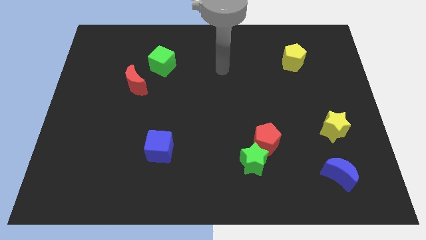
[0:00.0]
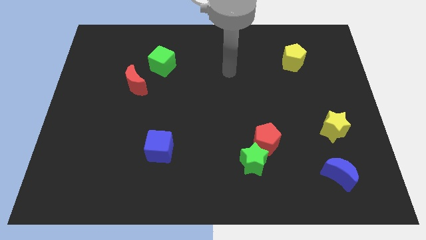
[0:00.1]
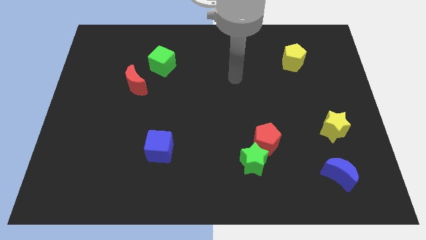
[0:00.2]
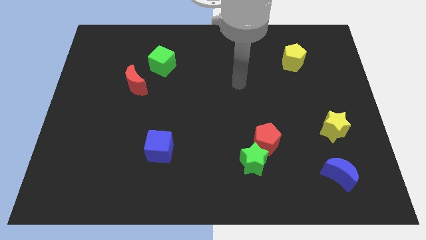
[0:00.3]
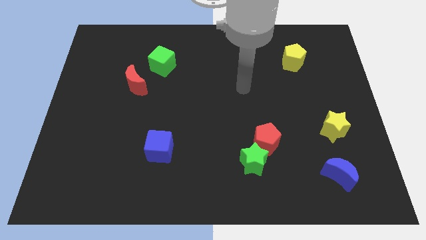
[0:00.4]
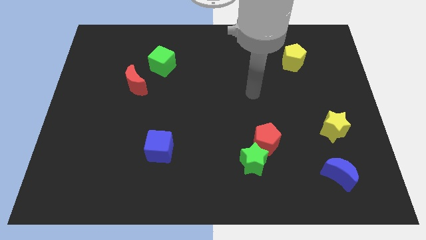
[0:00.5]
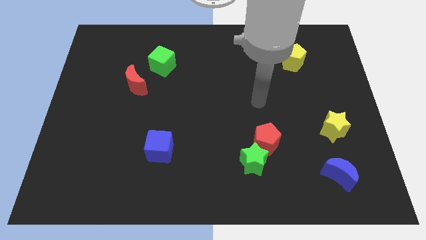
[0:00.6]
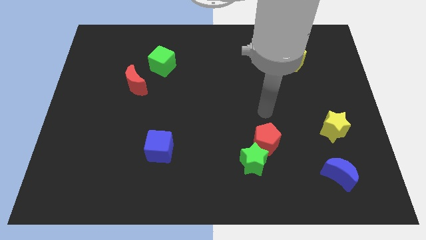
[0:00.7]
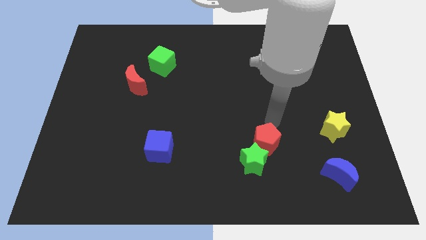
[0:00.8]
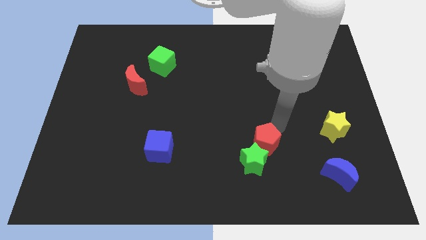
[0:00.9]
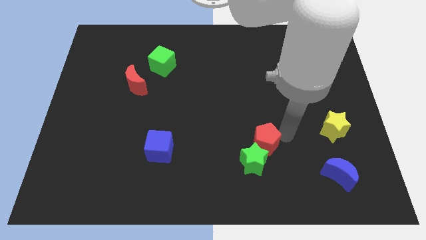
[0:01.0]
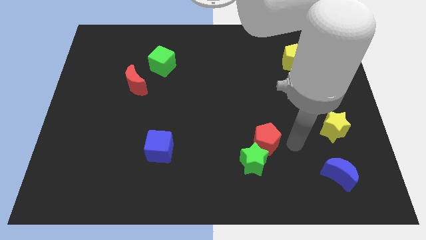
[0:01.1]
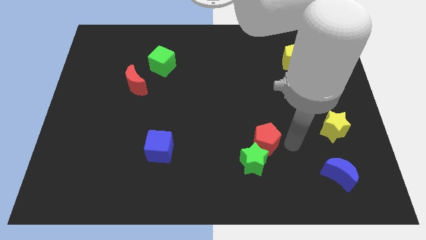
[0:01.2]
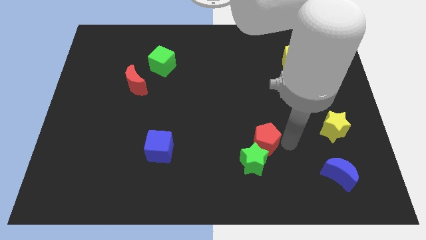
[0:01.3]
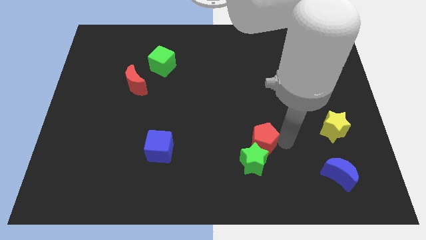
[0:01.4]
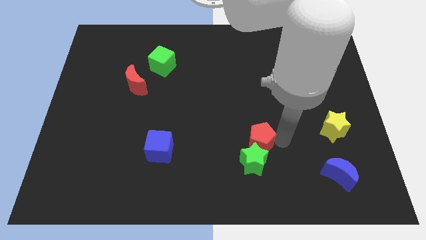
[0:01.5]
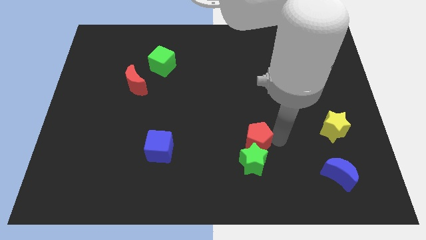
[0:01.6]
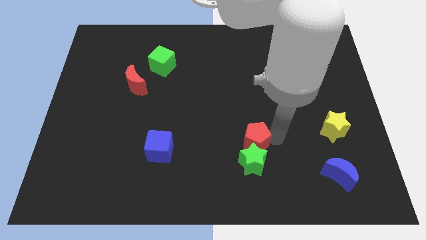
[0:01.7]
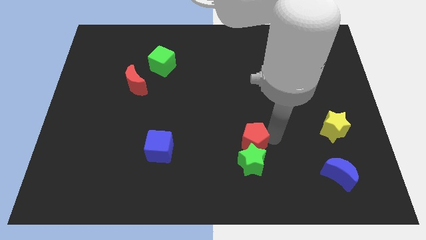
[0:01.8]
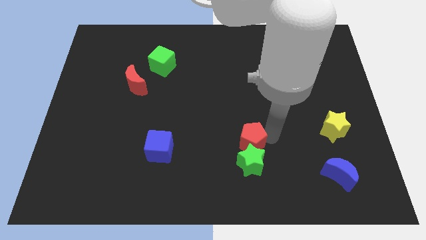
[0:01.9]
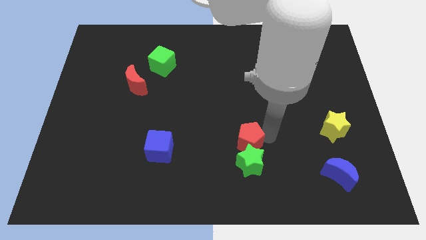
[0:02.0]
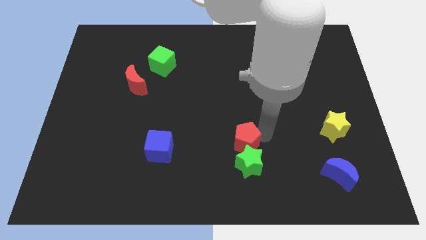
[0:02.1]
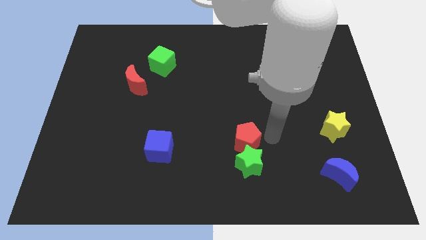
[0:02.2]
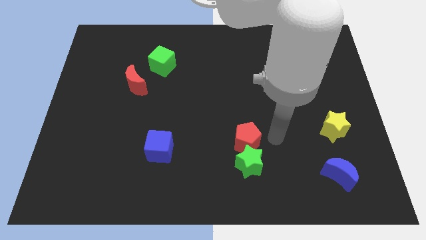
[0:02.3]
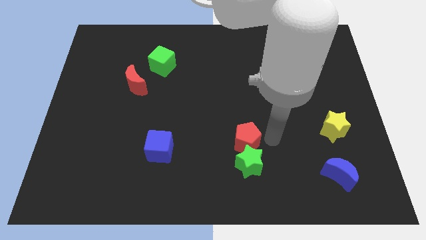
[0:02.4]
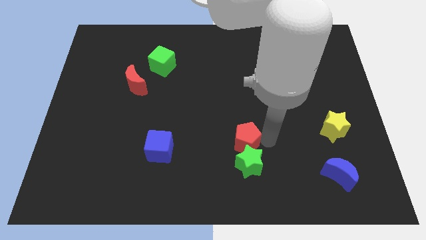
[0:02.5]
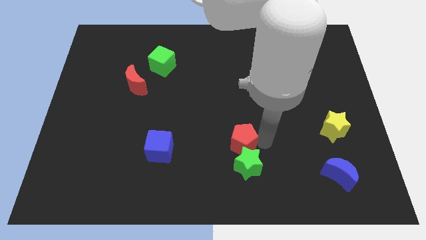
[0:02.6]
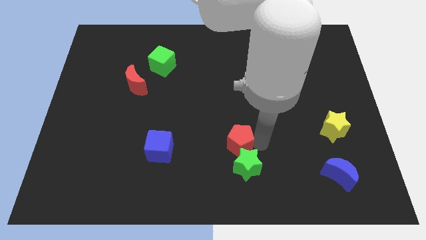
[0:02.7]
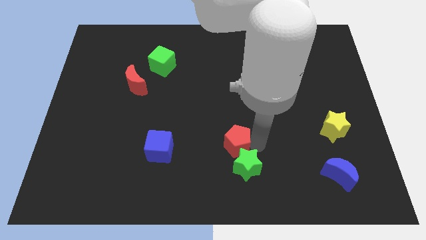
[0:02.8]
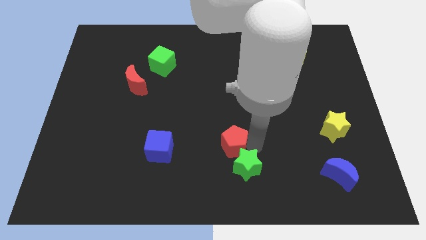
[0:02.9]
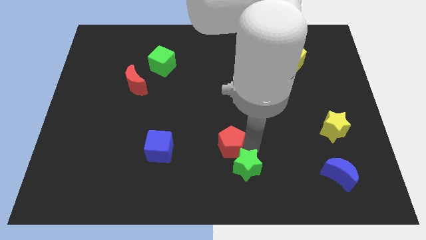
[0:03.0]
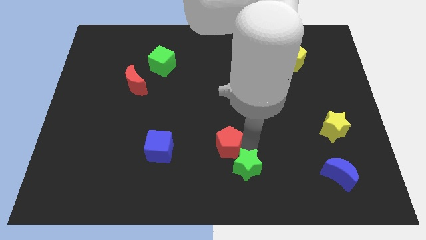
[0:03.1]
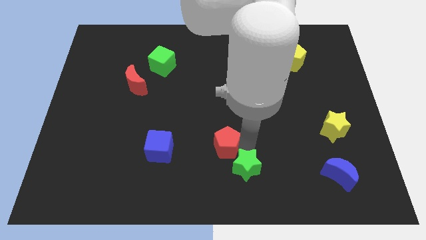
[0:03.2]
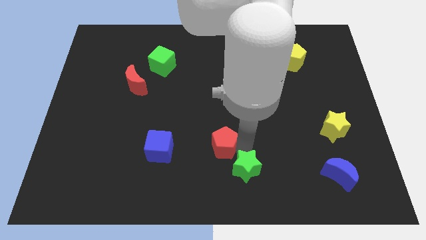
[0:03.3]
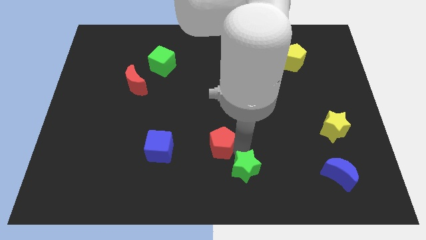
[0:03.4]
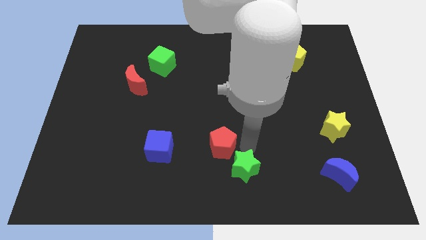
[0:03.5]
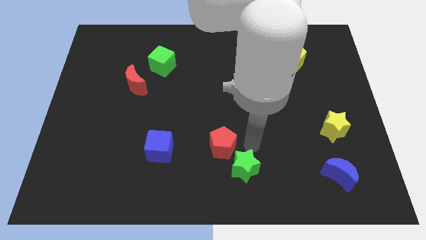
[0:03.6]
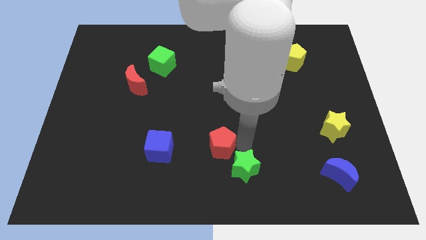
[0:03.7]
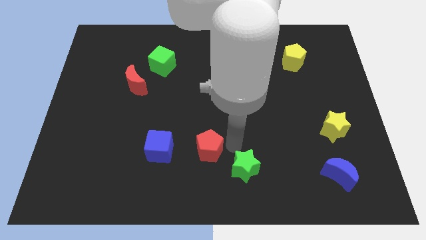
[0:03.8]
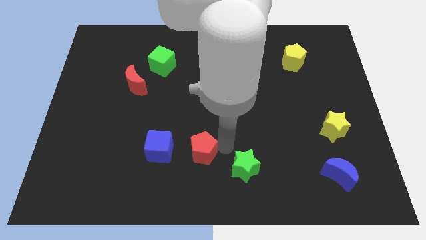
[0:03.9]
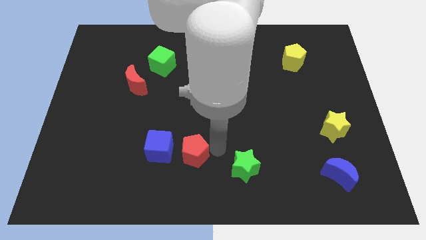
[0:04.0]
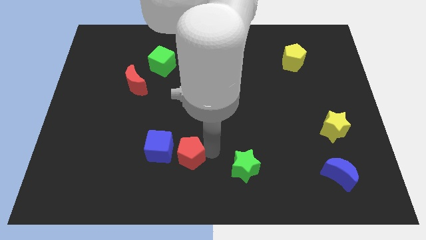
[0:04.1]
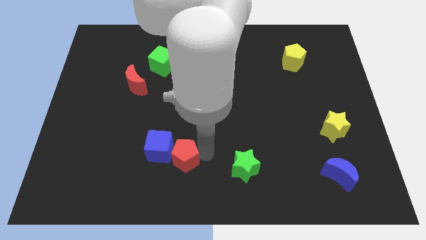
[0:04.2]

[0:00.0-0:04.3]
slide the red pentagon towards the blue cube

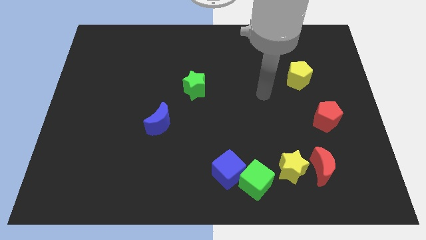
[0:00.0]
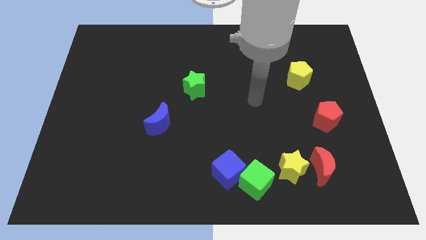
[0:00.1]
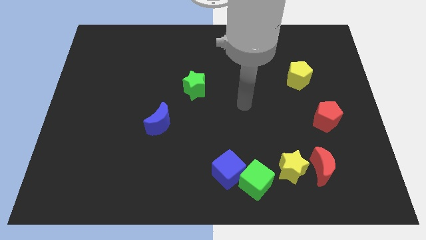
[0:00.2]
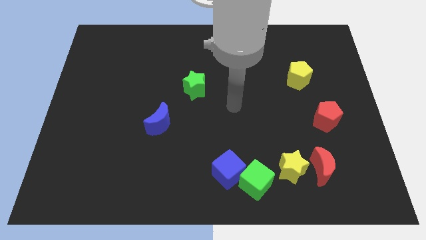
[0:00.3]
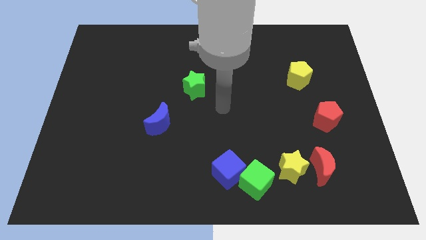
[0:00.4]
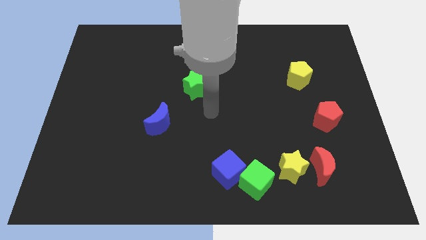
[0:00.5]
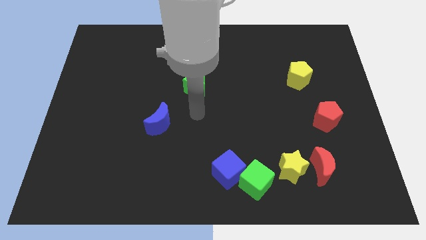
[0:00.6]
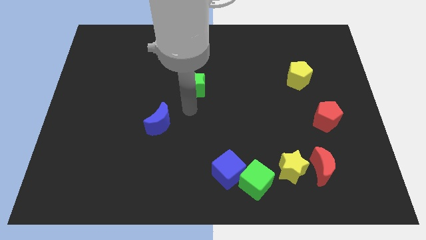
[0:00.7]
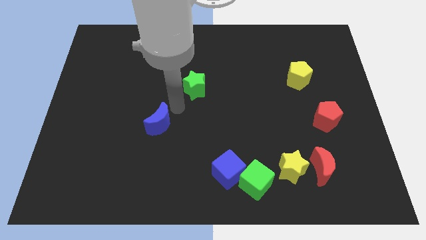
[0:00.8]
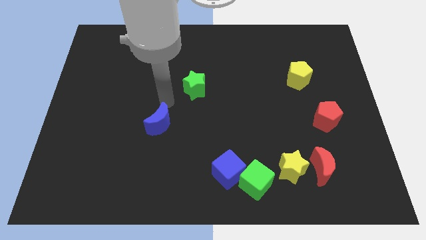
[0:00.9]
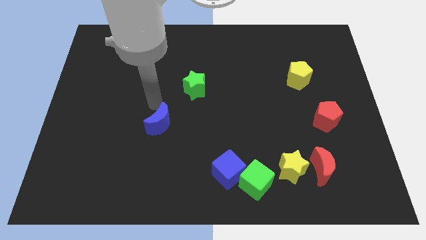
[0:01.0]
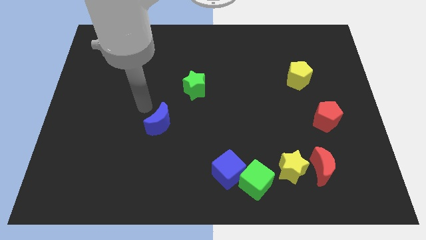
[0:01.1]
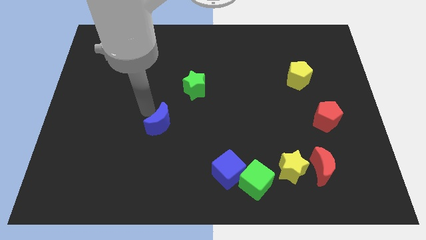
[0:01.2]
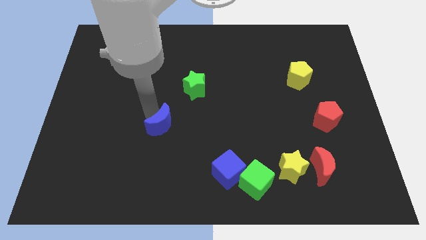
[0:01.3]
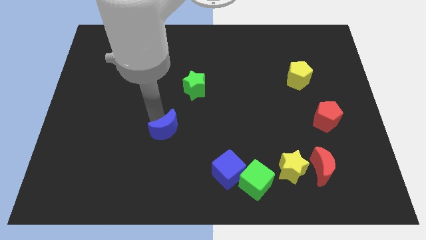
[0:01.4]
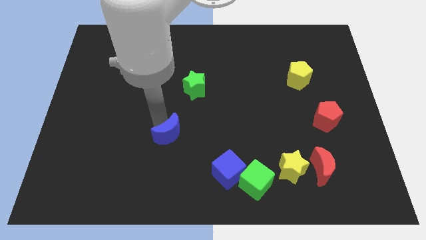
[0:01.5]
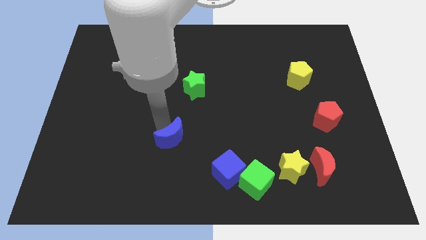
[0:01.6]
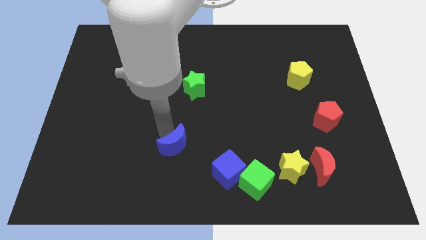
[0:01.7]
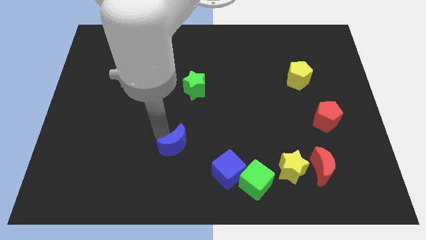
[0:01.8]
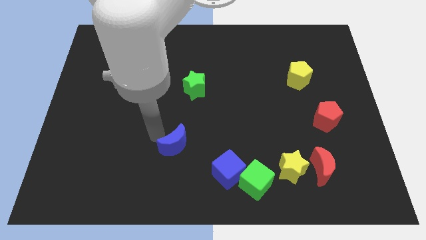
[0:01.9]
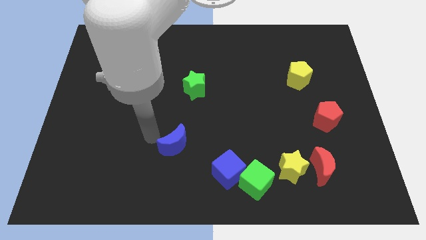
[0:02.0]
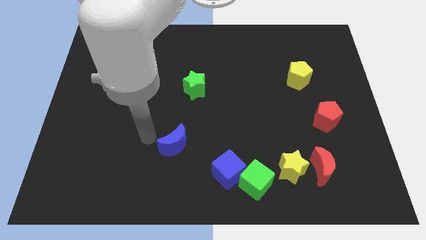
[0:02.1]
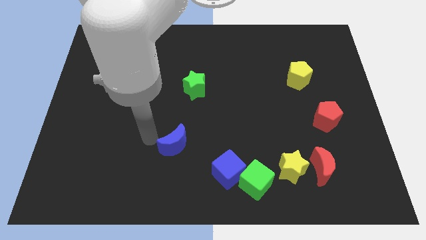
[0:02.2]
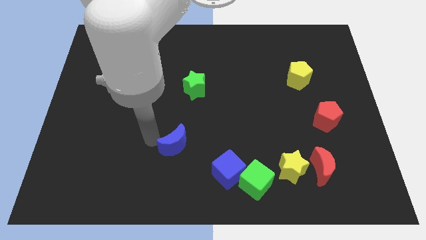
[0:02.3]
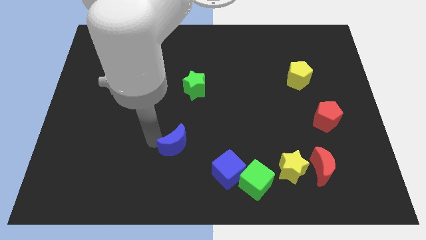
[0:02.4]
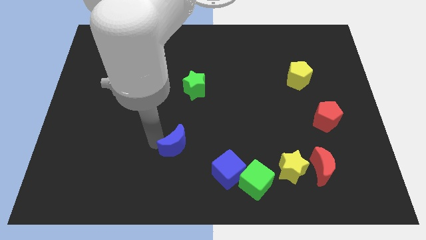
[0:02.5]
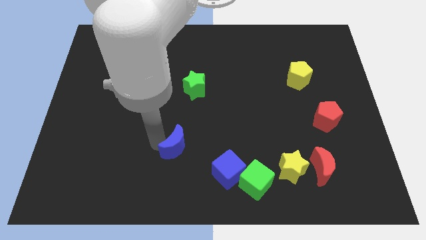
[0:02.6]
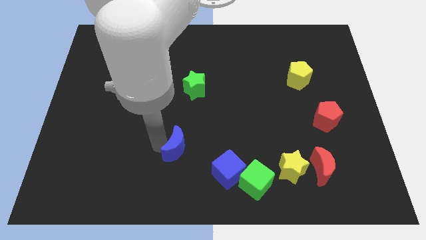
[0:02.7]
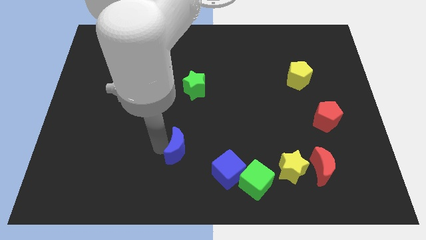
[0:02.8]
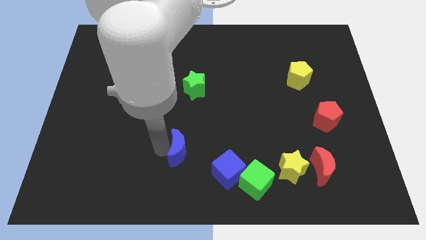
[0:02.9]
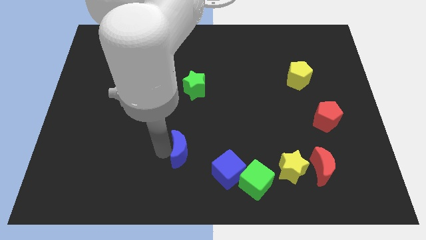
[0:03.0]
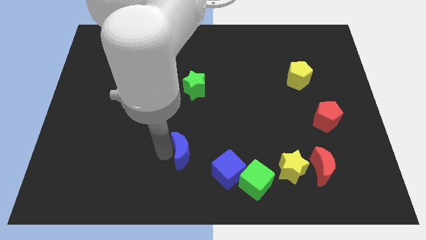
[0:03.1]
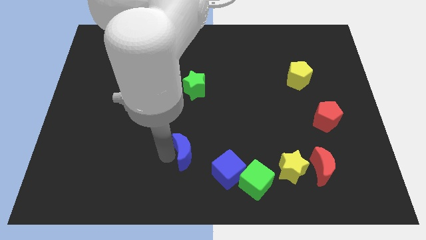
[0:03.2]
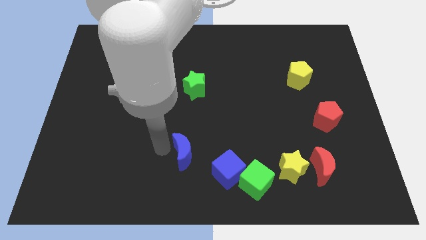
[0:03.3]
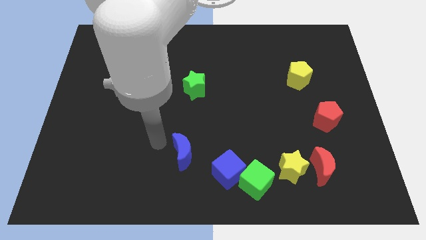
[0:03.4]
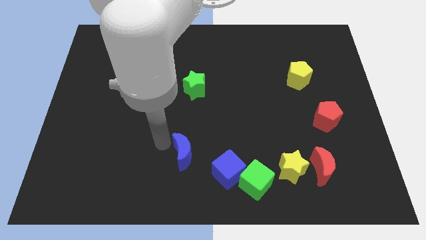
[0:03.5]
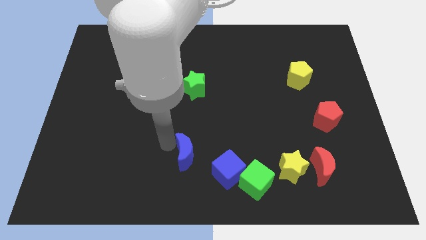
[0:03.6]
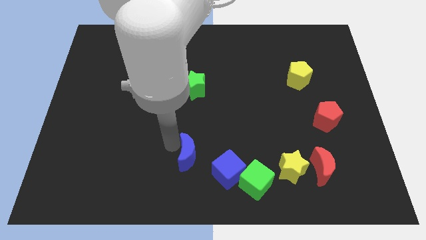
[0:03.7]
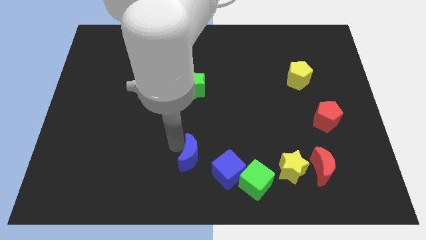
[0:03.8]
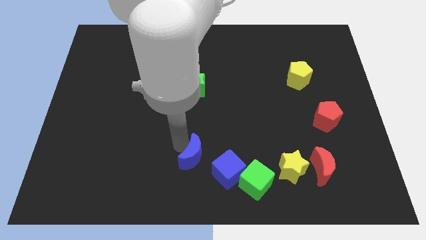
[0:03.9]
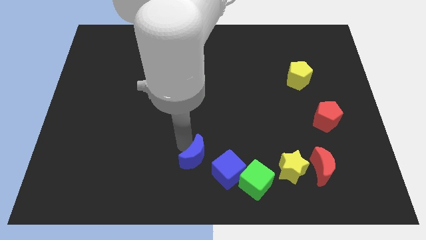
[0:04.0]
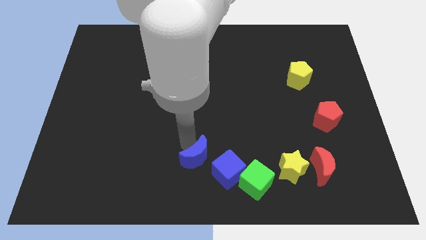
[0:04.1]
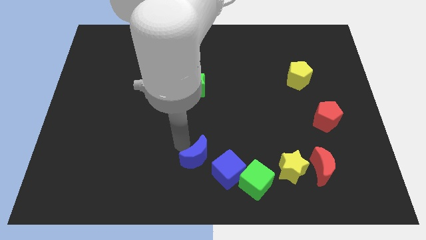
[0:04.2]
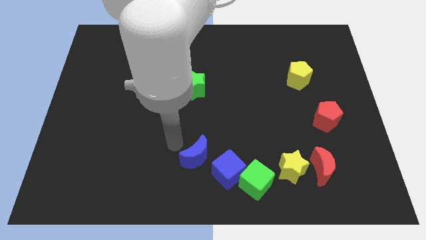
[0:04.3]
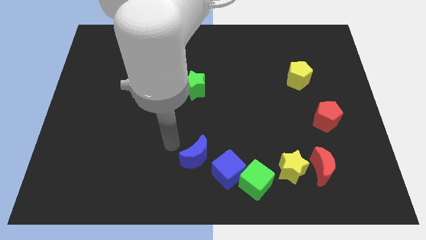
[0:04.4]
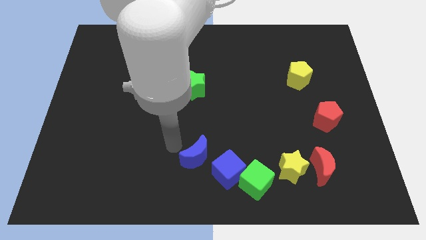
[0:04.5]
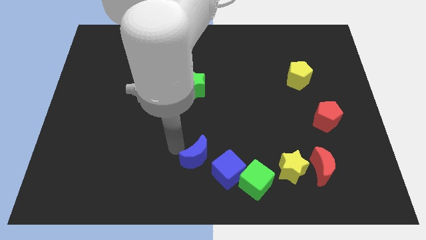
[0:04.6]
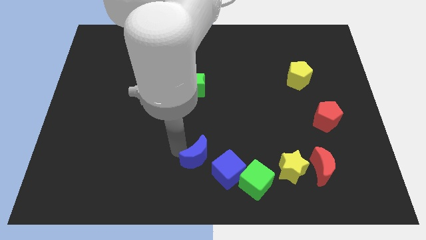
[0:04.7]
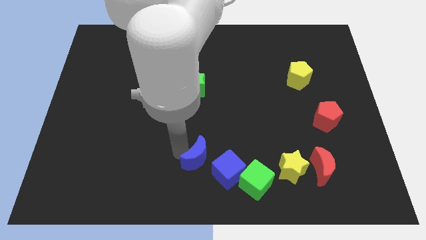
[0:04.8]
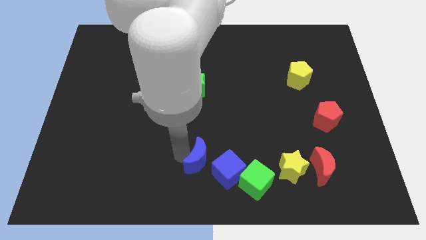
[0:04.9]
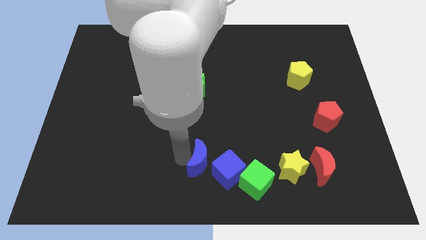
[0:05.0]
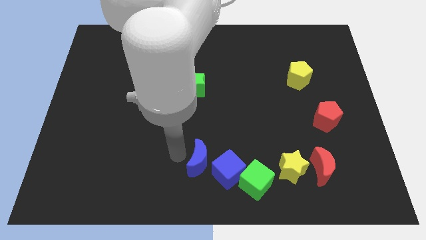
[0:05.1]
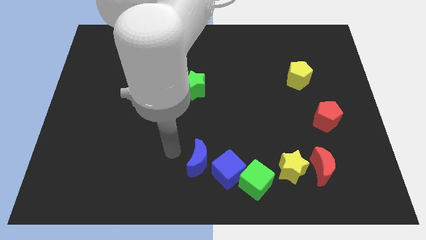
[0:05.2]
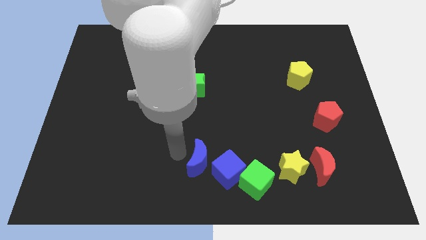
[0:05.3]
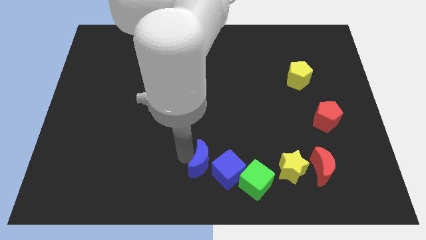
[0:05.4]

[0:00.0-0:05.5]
put the blue moon towards the blue cube
